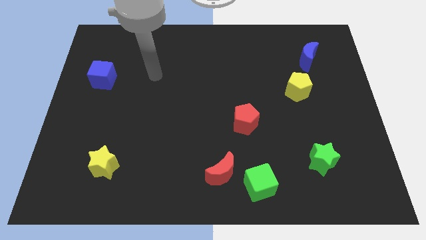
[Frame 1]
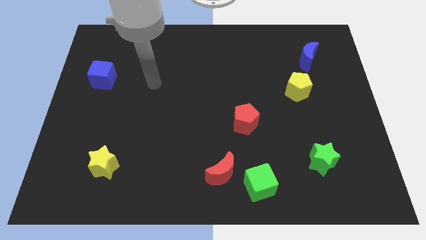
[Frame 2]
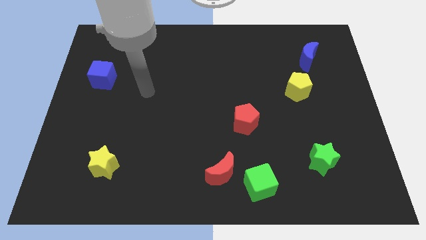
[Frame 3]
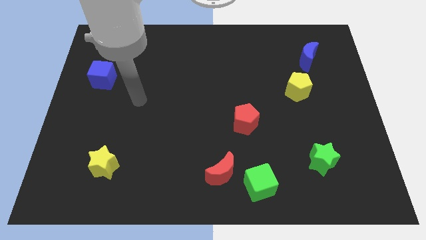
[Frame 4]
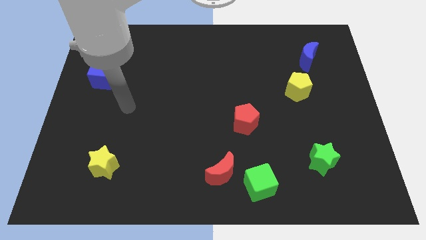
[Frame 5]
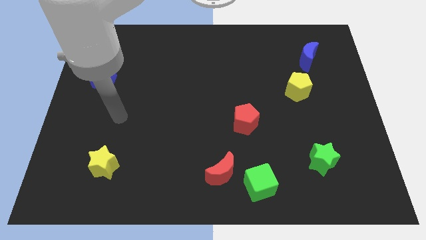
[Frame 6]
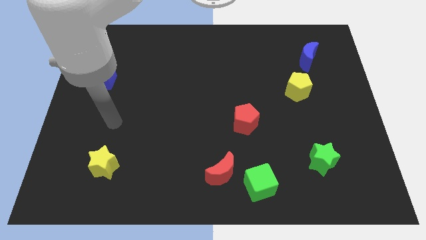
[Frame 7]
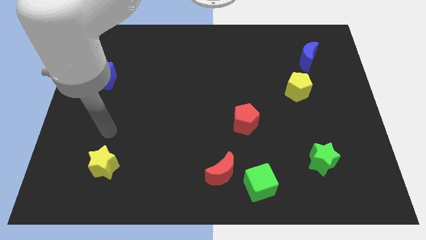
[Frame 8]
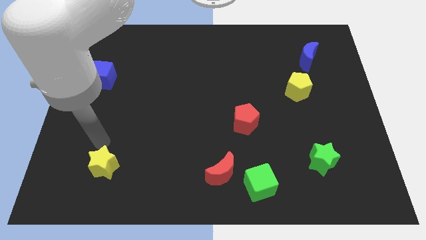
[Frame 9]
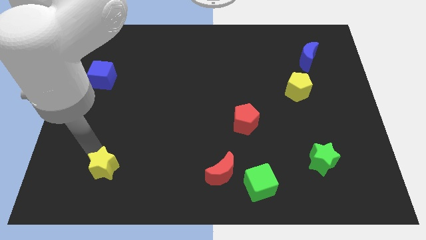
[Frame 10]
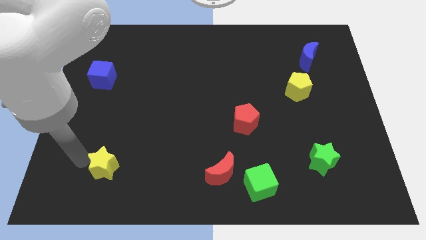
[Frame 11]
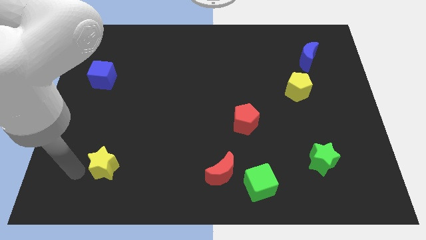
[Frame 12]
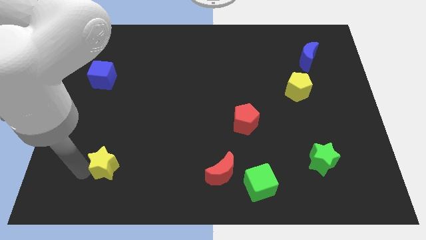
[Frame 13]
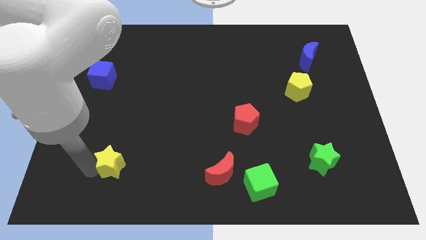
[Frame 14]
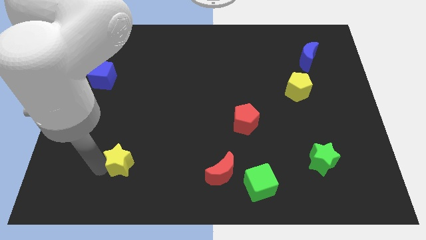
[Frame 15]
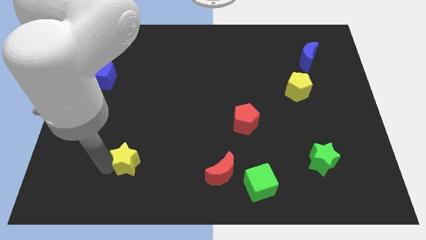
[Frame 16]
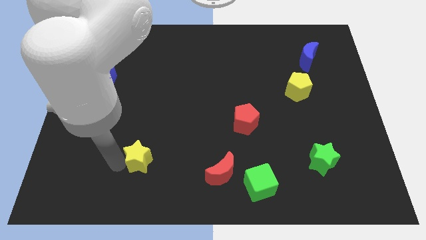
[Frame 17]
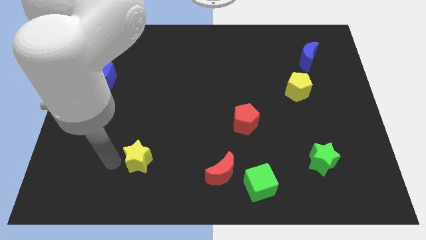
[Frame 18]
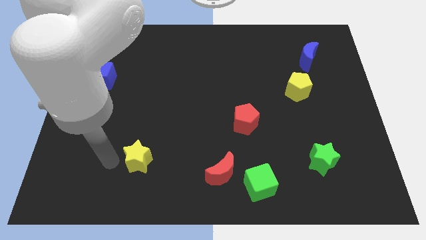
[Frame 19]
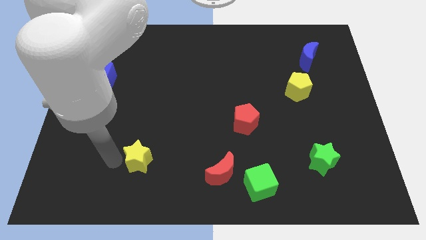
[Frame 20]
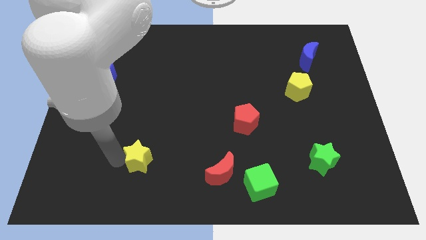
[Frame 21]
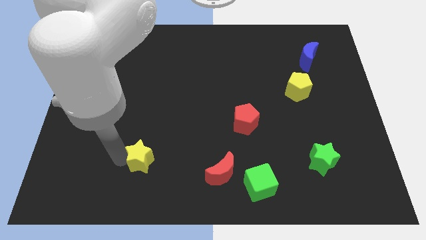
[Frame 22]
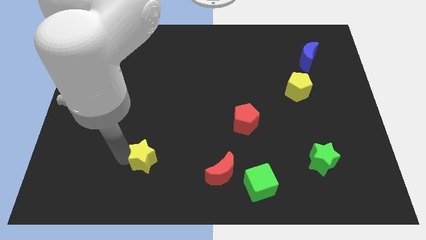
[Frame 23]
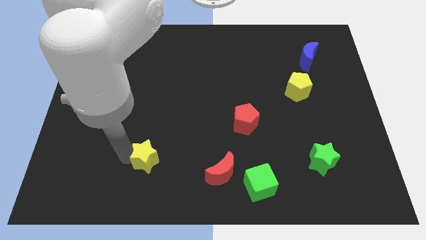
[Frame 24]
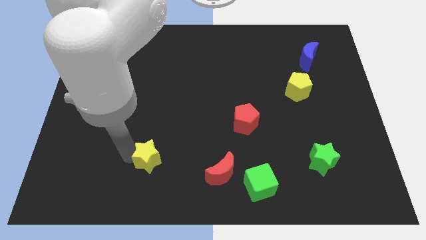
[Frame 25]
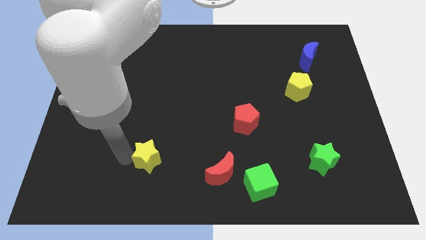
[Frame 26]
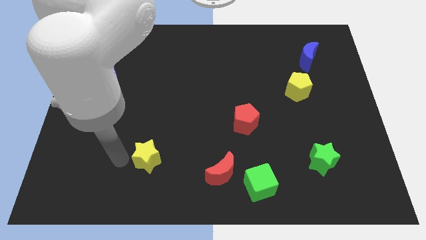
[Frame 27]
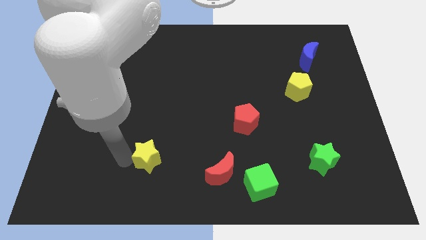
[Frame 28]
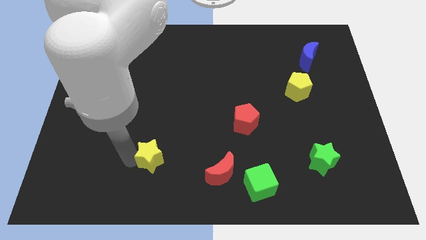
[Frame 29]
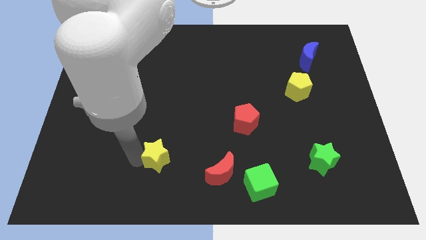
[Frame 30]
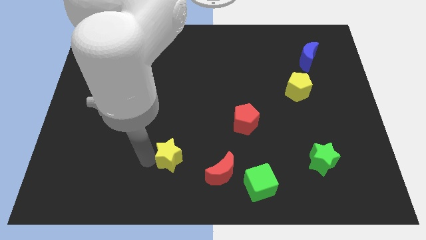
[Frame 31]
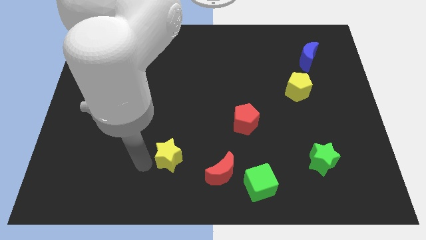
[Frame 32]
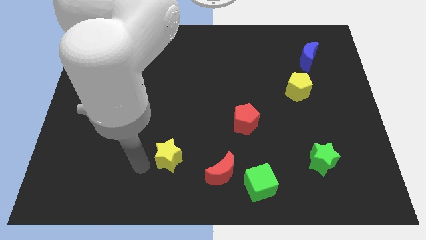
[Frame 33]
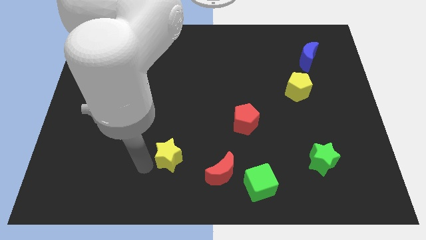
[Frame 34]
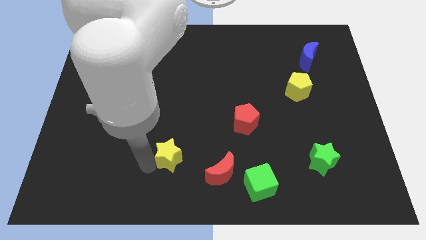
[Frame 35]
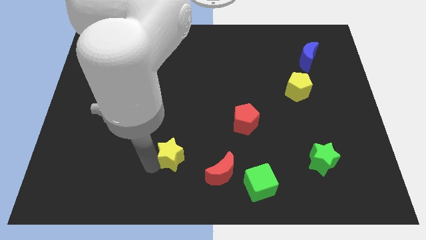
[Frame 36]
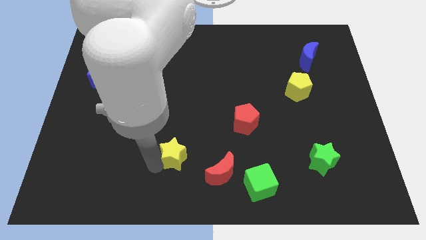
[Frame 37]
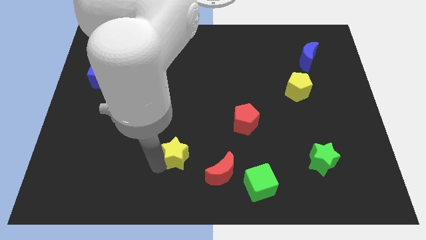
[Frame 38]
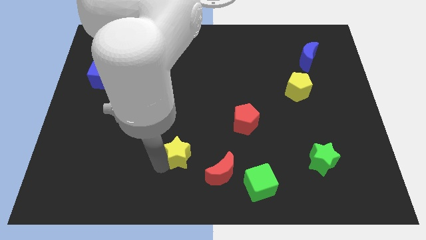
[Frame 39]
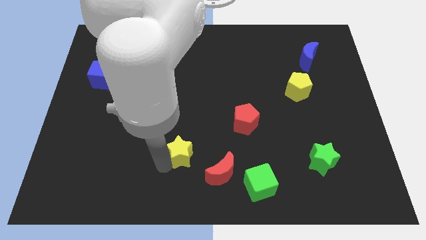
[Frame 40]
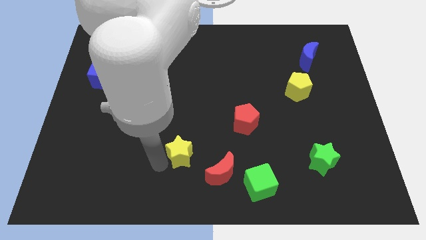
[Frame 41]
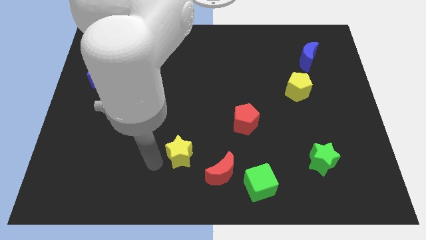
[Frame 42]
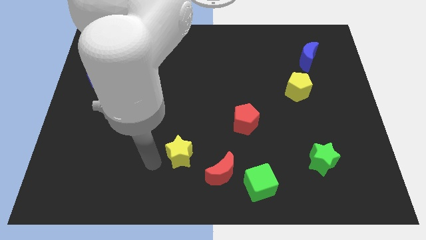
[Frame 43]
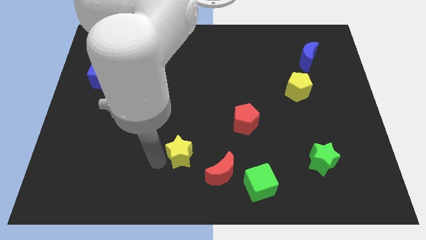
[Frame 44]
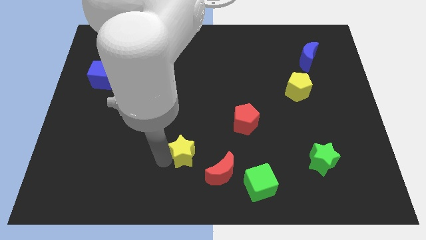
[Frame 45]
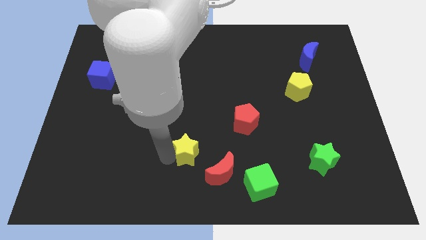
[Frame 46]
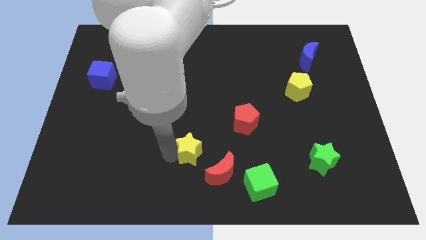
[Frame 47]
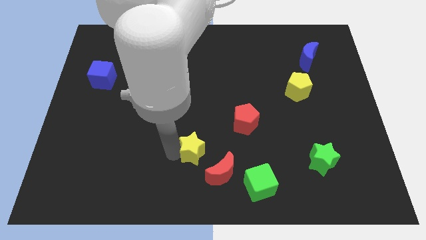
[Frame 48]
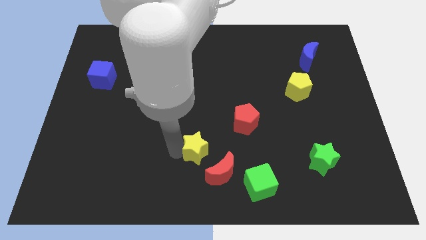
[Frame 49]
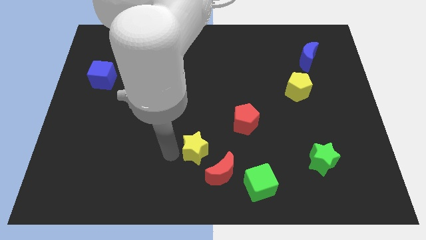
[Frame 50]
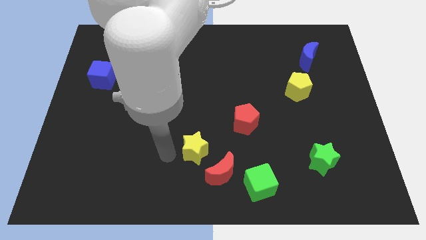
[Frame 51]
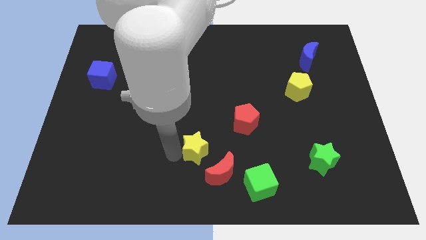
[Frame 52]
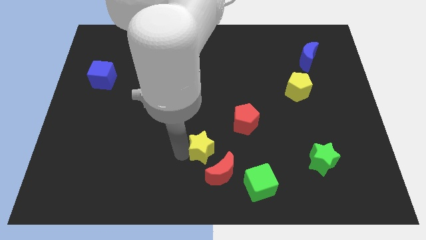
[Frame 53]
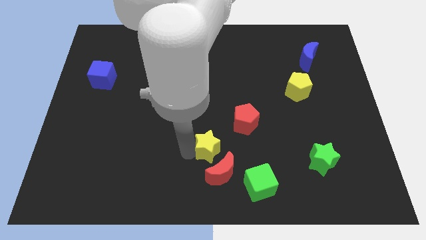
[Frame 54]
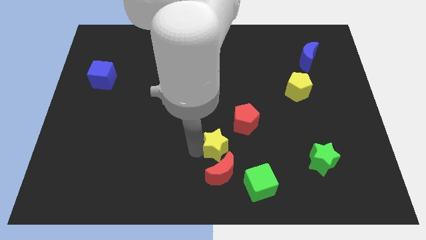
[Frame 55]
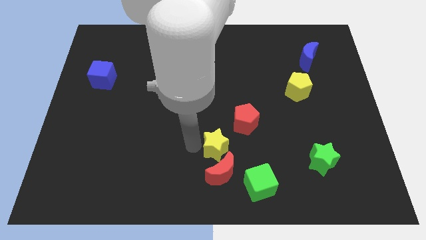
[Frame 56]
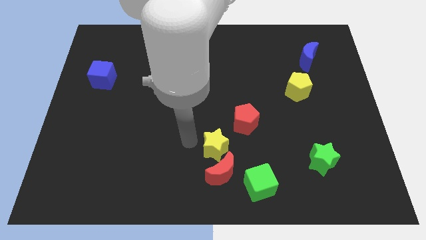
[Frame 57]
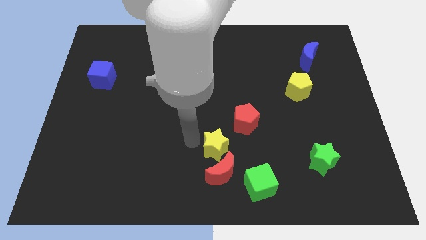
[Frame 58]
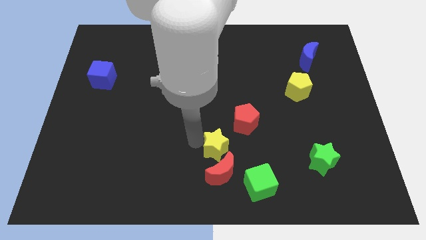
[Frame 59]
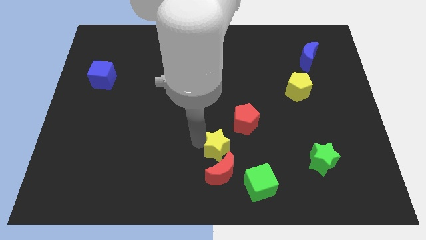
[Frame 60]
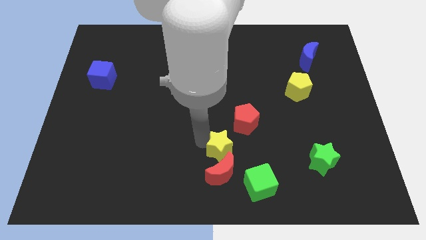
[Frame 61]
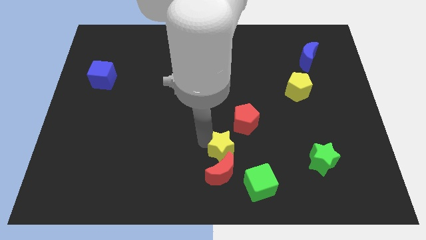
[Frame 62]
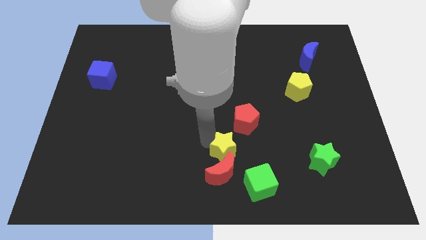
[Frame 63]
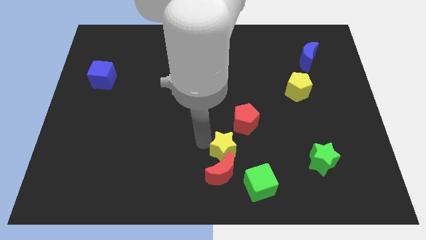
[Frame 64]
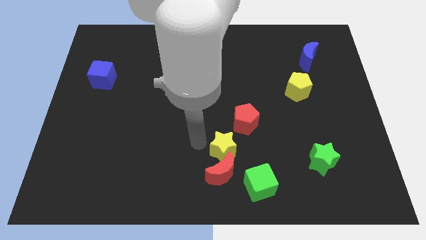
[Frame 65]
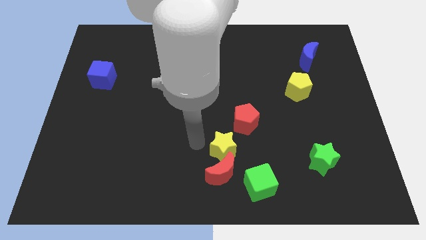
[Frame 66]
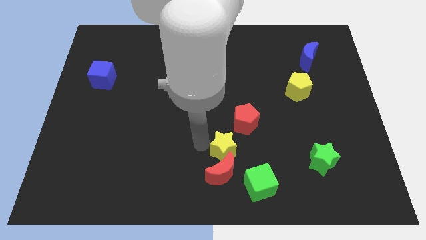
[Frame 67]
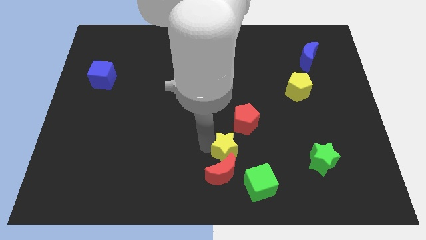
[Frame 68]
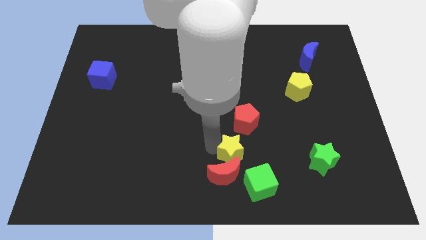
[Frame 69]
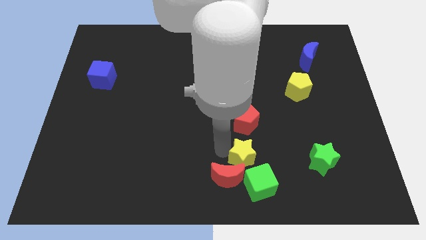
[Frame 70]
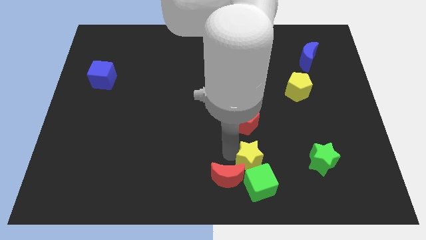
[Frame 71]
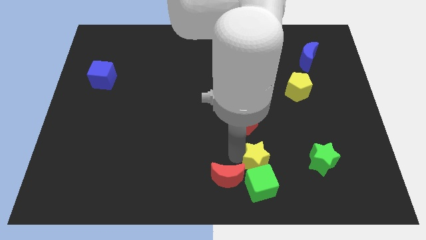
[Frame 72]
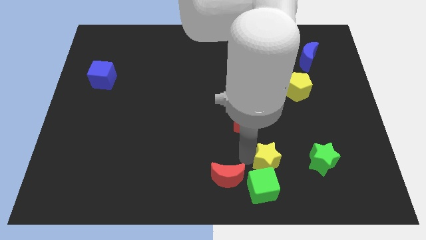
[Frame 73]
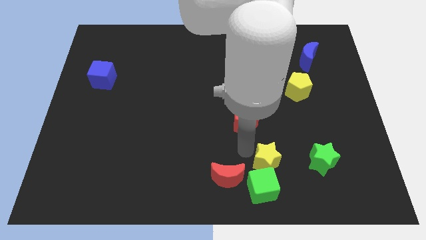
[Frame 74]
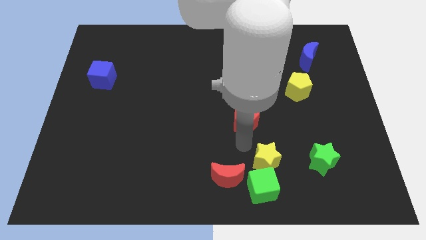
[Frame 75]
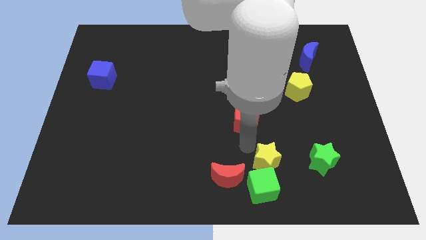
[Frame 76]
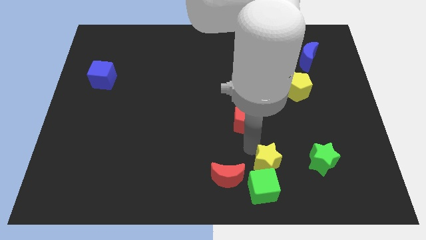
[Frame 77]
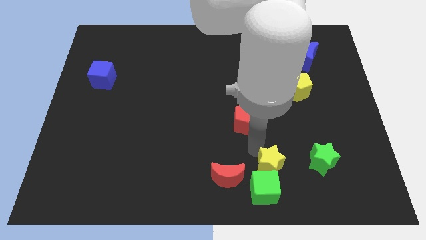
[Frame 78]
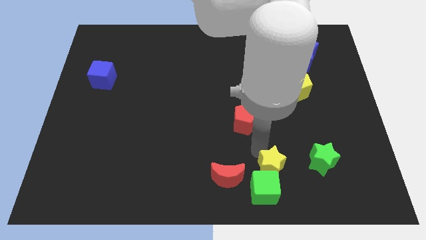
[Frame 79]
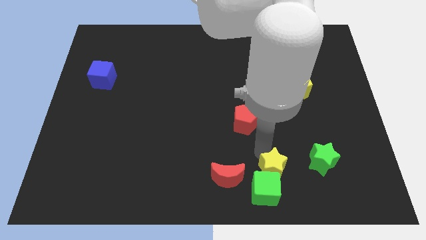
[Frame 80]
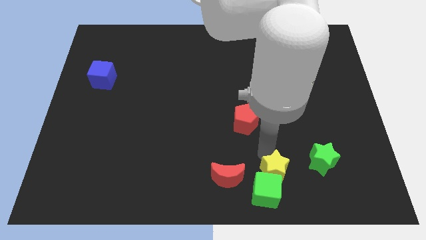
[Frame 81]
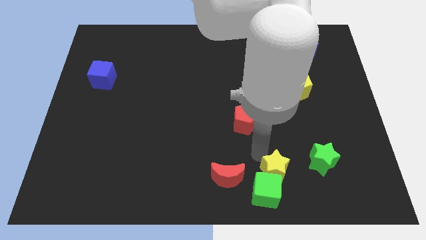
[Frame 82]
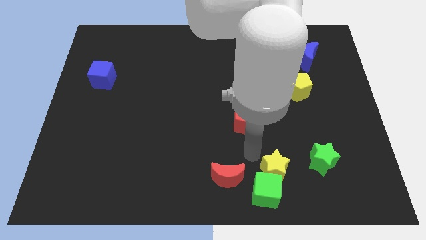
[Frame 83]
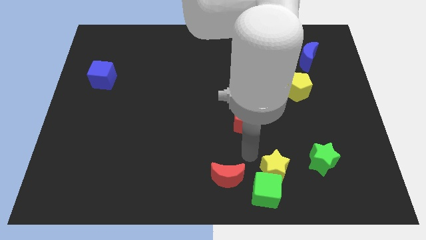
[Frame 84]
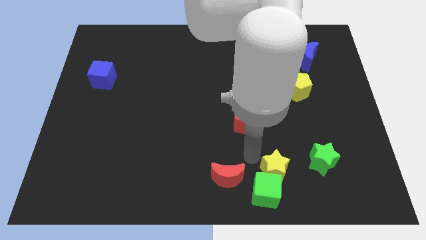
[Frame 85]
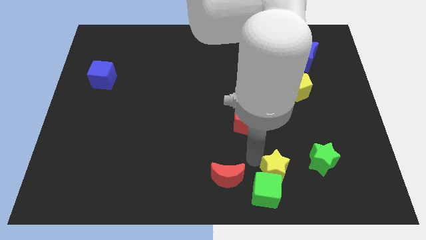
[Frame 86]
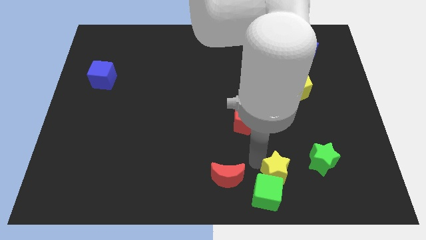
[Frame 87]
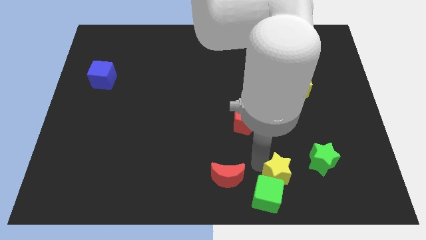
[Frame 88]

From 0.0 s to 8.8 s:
move the yellow star diagonally down and to the left of the green star
